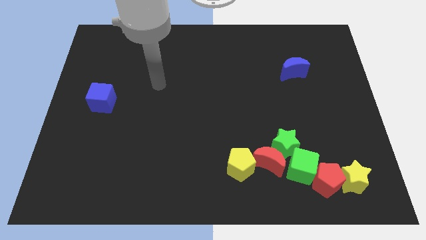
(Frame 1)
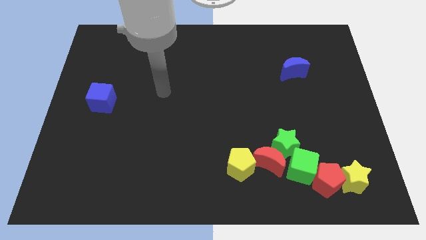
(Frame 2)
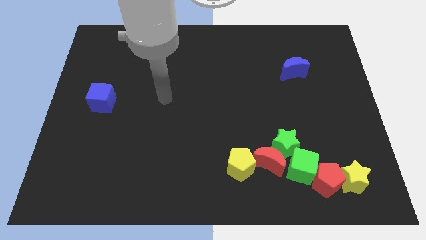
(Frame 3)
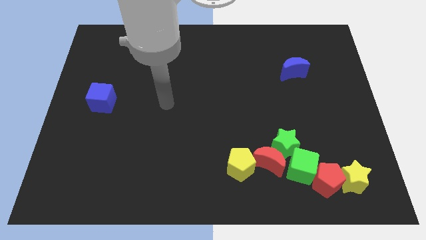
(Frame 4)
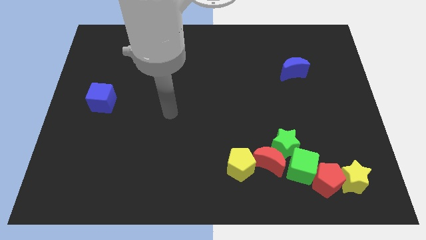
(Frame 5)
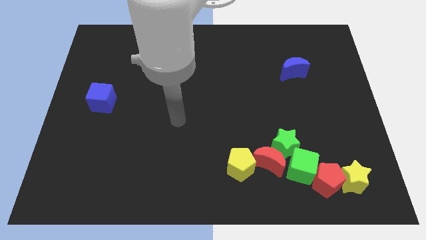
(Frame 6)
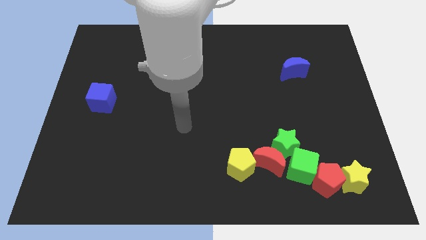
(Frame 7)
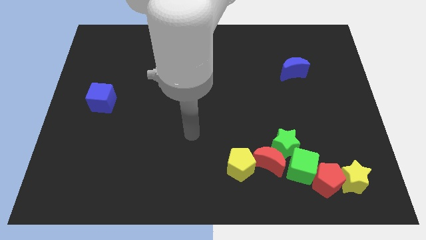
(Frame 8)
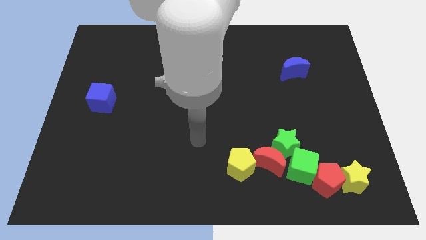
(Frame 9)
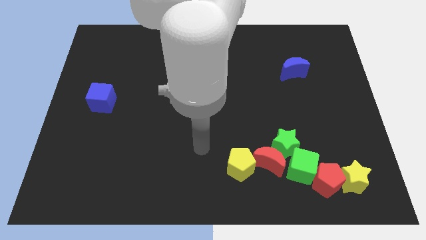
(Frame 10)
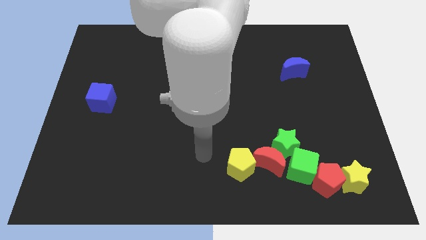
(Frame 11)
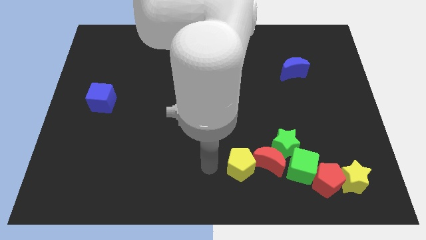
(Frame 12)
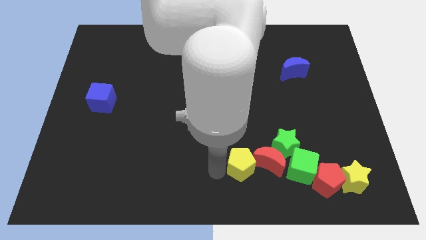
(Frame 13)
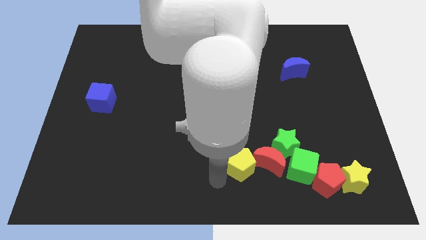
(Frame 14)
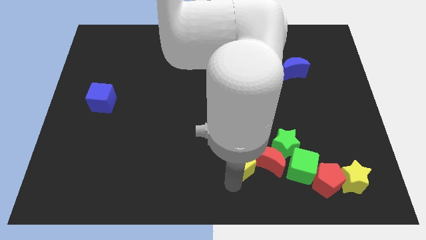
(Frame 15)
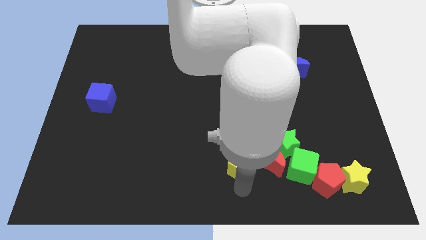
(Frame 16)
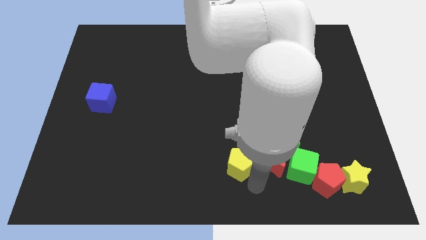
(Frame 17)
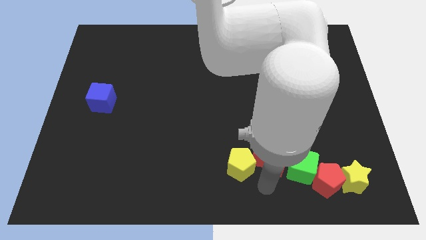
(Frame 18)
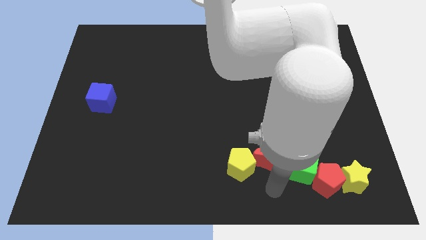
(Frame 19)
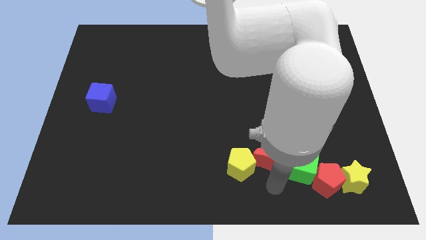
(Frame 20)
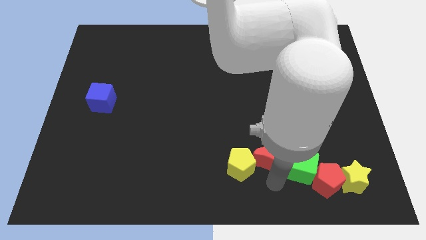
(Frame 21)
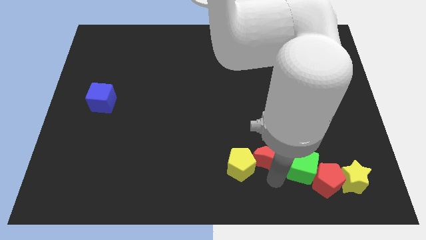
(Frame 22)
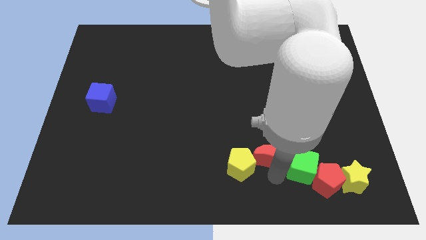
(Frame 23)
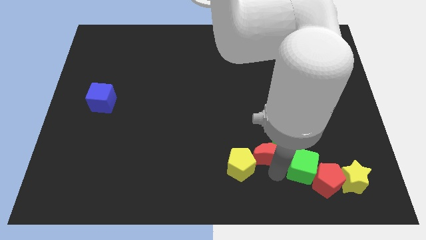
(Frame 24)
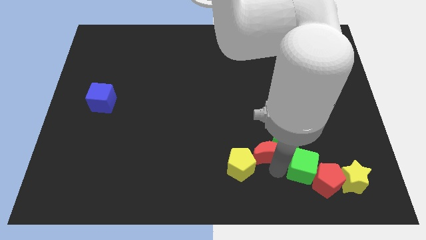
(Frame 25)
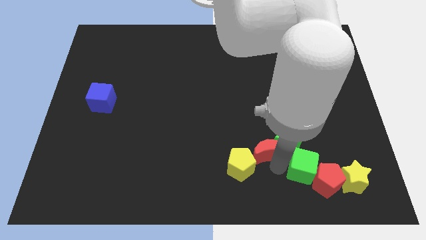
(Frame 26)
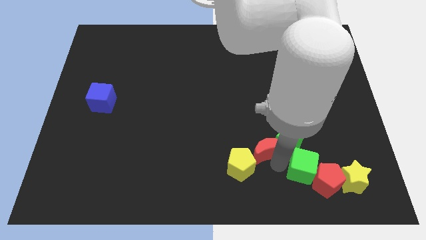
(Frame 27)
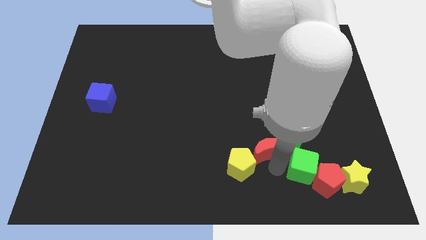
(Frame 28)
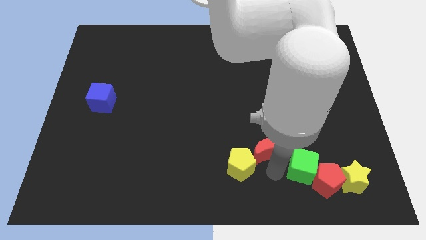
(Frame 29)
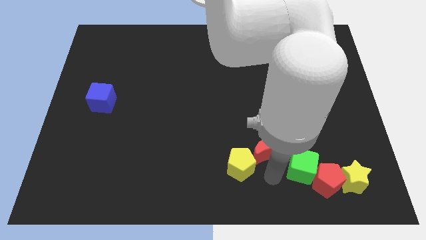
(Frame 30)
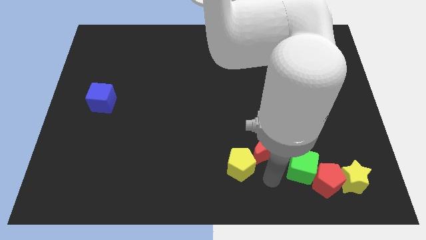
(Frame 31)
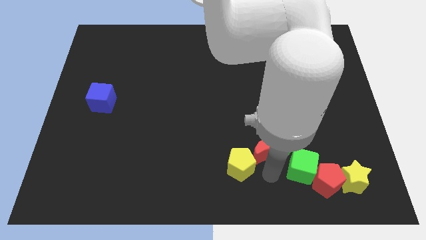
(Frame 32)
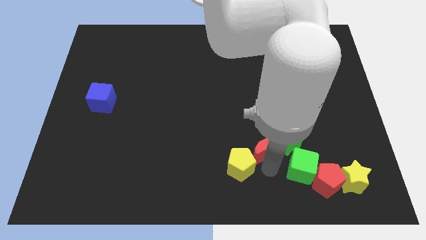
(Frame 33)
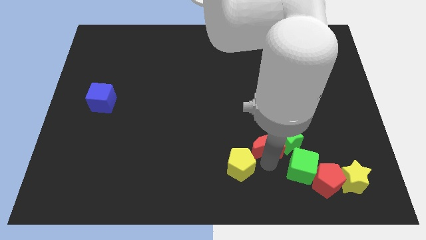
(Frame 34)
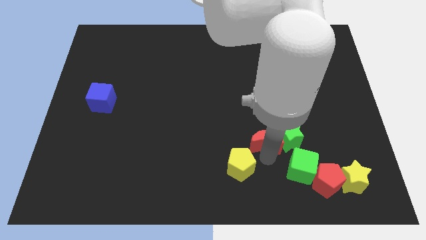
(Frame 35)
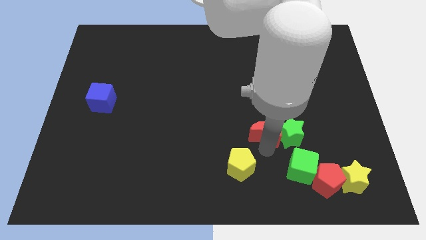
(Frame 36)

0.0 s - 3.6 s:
push the red moon upwards somewhat

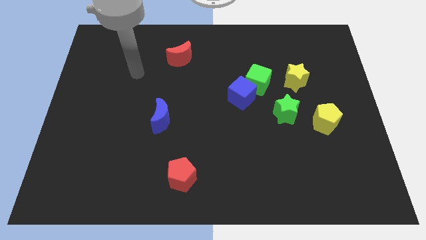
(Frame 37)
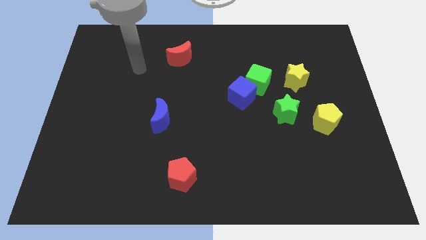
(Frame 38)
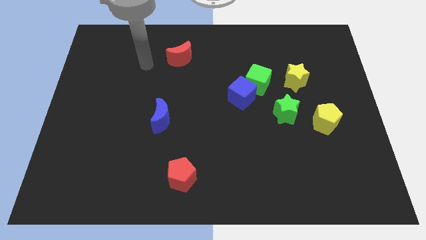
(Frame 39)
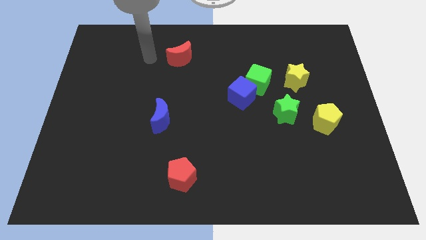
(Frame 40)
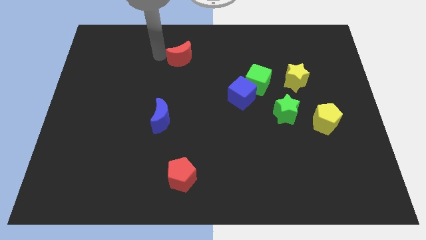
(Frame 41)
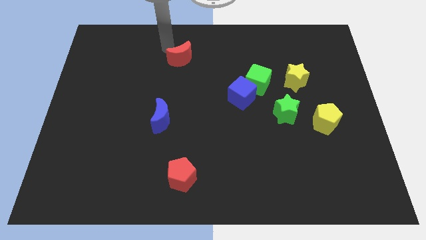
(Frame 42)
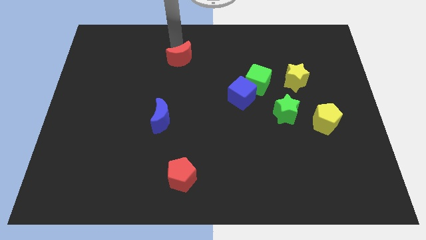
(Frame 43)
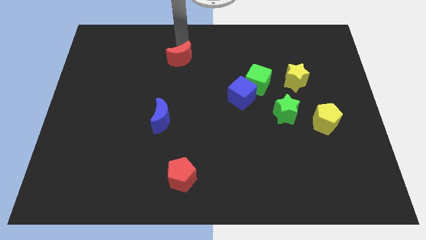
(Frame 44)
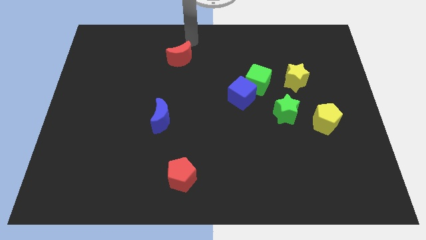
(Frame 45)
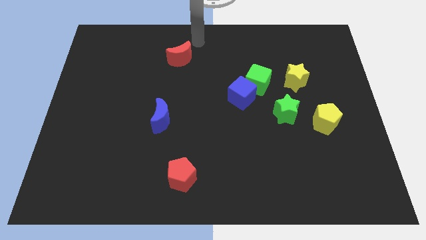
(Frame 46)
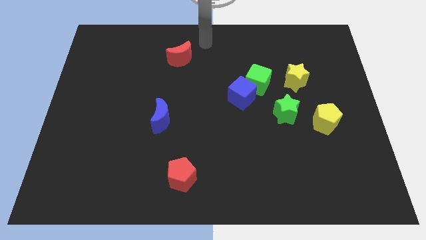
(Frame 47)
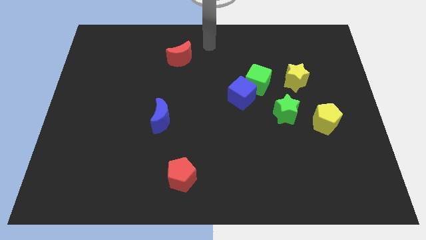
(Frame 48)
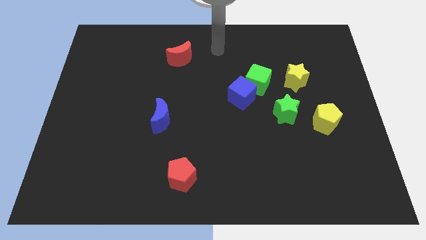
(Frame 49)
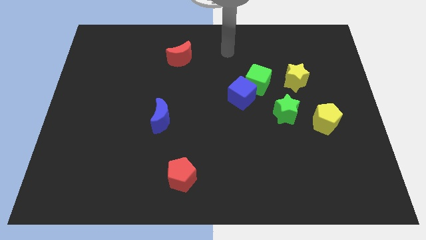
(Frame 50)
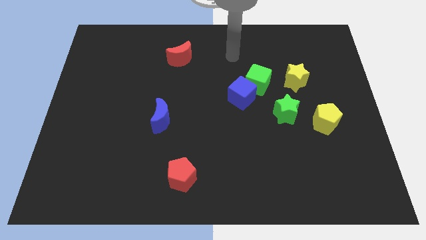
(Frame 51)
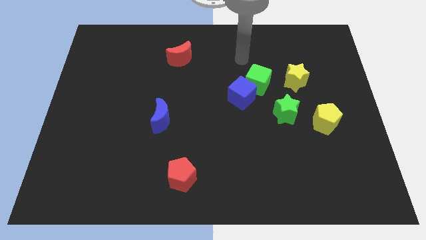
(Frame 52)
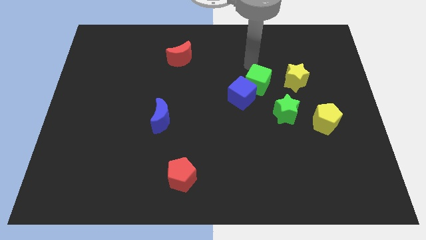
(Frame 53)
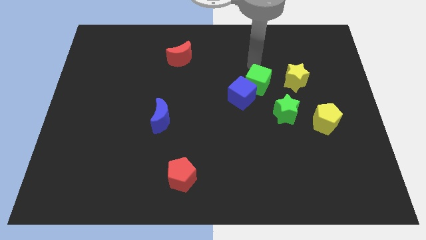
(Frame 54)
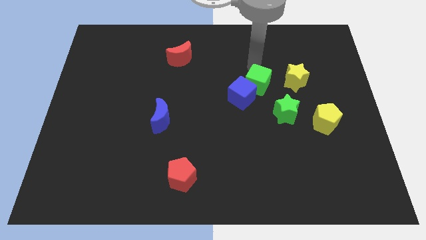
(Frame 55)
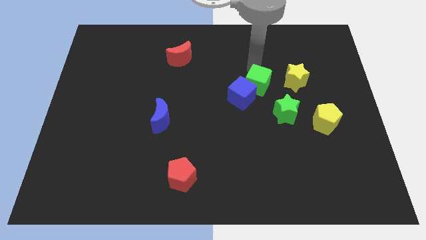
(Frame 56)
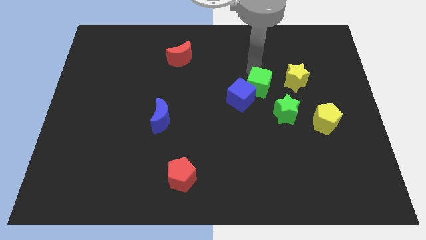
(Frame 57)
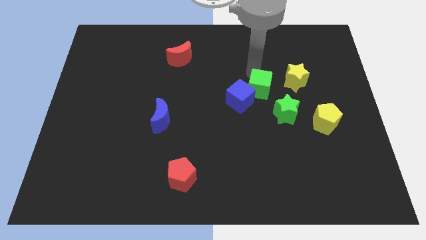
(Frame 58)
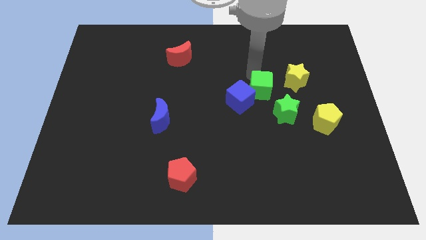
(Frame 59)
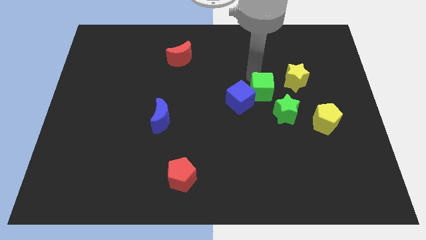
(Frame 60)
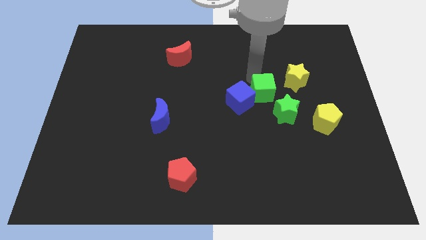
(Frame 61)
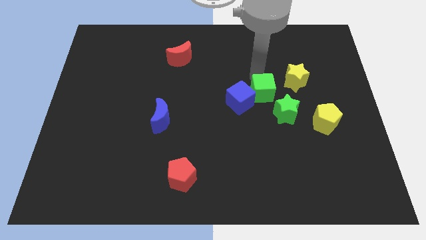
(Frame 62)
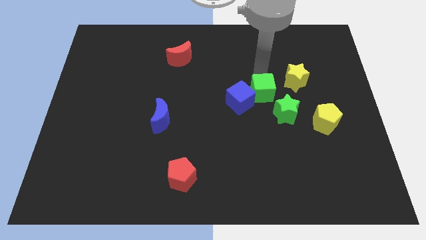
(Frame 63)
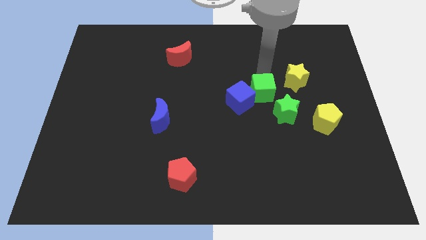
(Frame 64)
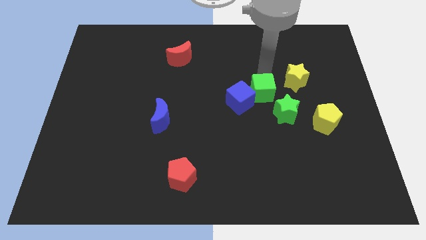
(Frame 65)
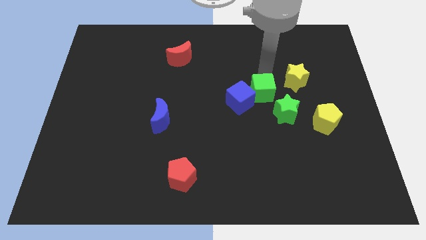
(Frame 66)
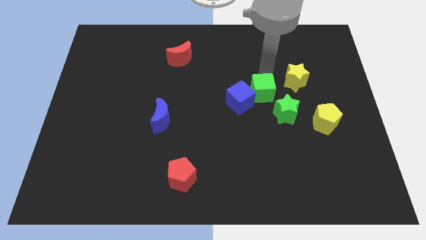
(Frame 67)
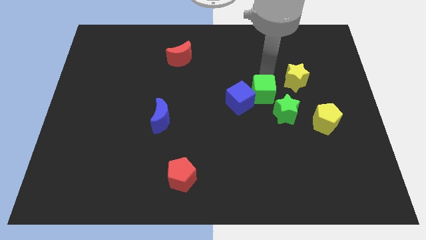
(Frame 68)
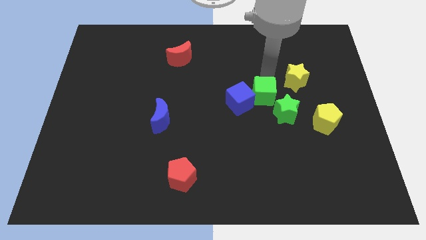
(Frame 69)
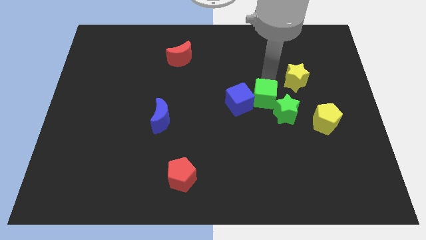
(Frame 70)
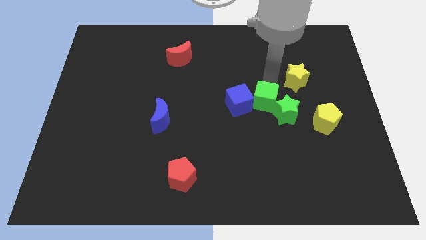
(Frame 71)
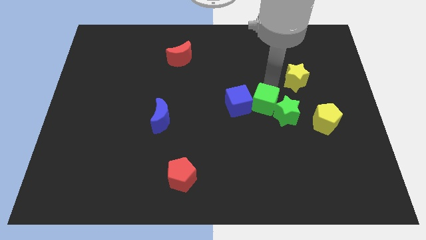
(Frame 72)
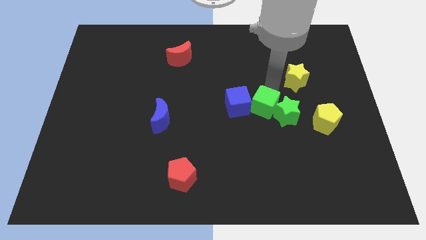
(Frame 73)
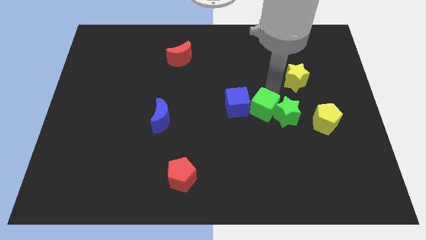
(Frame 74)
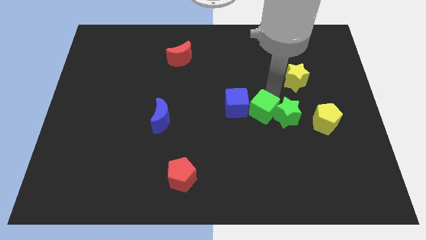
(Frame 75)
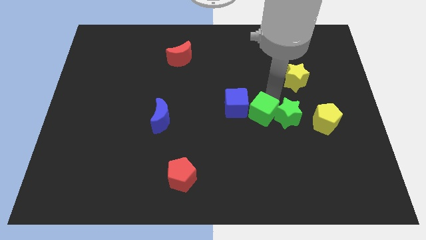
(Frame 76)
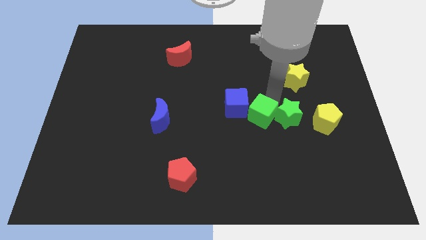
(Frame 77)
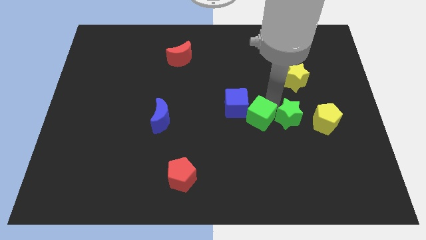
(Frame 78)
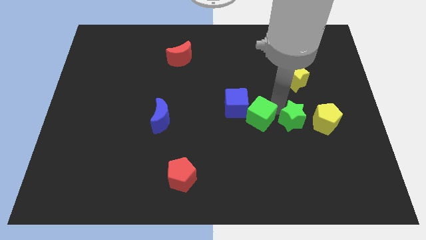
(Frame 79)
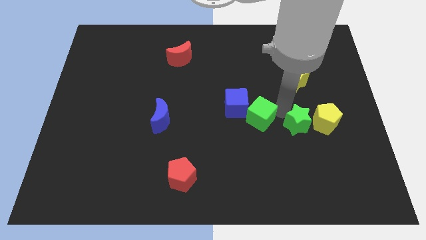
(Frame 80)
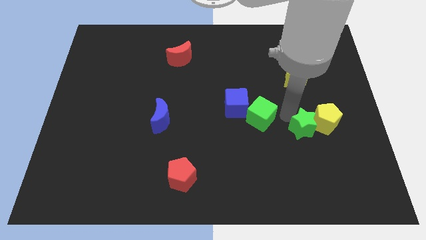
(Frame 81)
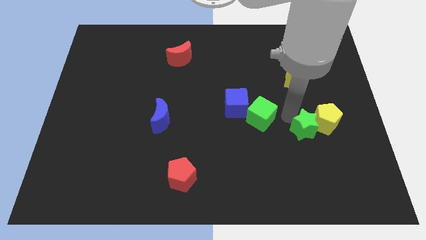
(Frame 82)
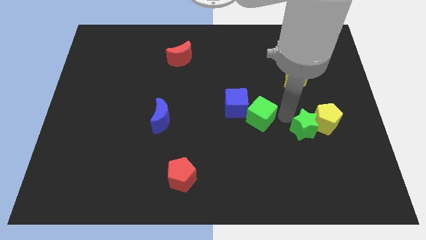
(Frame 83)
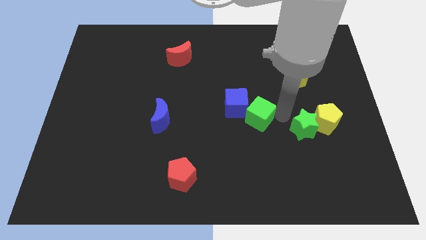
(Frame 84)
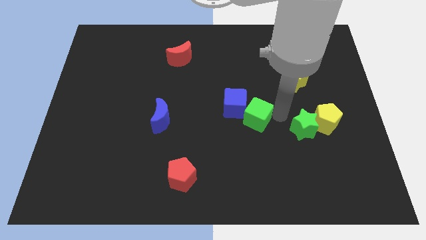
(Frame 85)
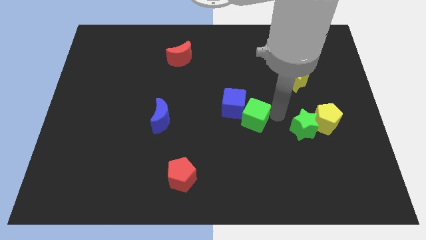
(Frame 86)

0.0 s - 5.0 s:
slightly move the green cube downwards and to the left diagonally
